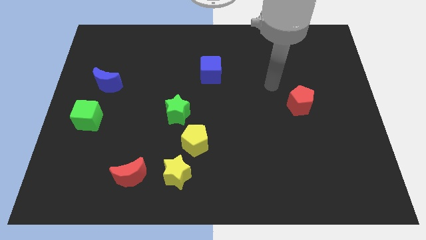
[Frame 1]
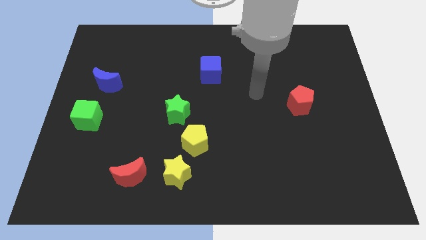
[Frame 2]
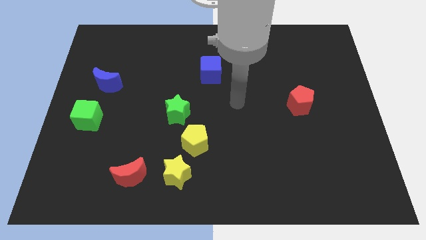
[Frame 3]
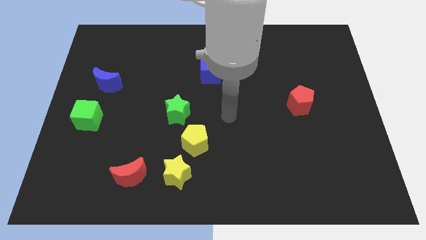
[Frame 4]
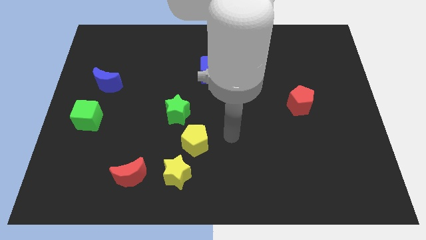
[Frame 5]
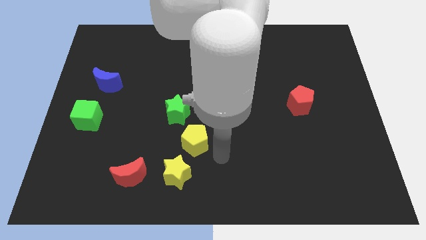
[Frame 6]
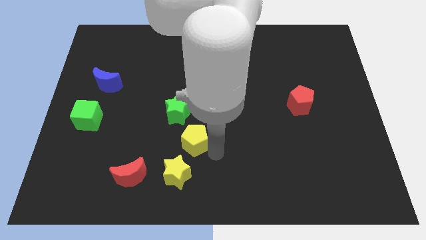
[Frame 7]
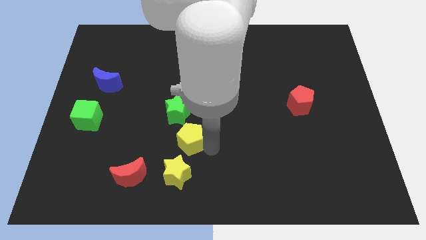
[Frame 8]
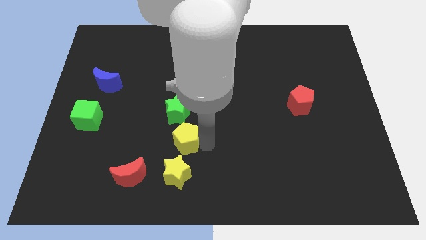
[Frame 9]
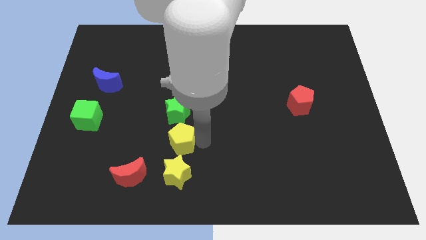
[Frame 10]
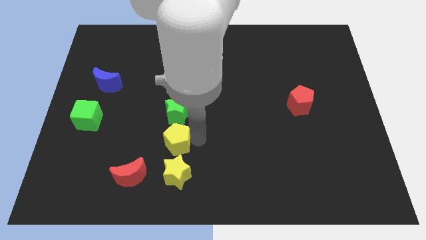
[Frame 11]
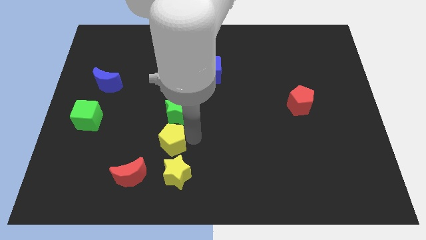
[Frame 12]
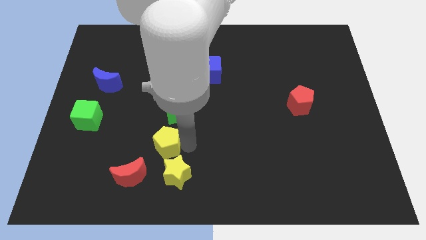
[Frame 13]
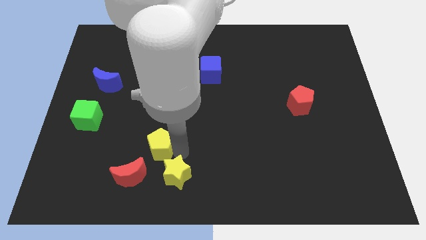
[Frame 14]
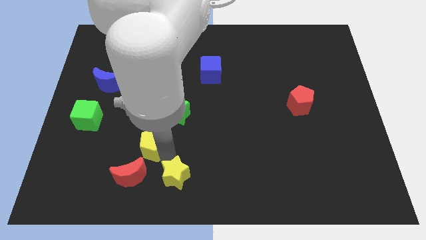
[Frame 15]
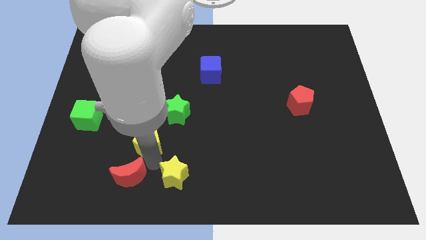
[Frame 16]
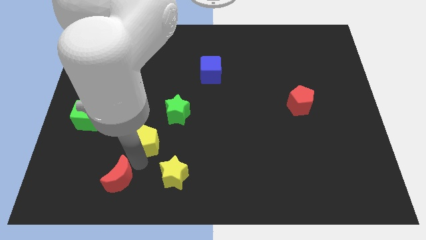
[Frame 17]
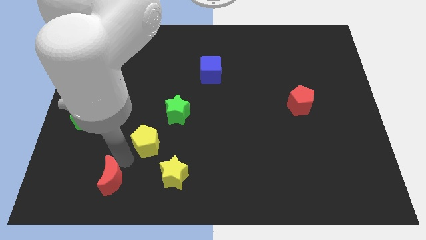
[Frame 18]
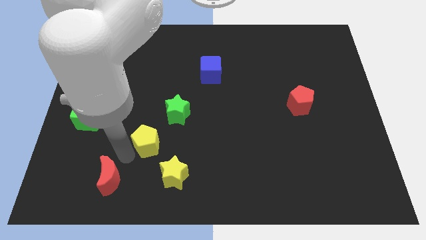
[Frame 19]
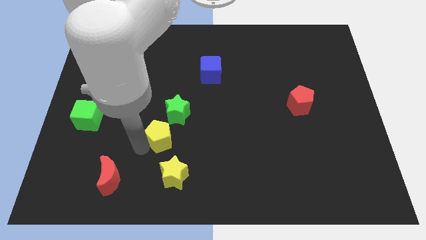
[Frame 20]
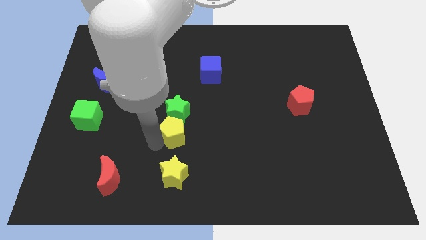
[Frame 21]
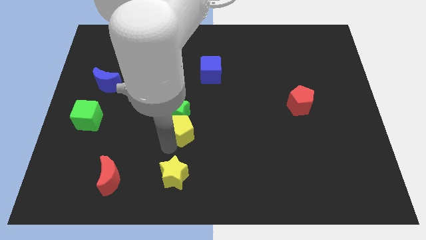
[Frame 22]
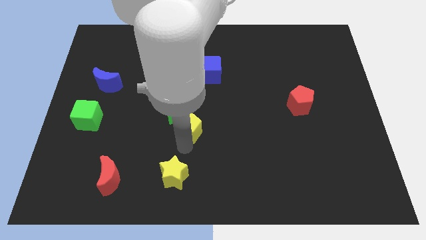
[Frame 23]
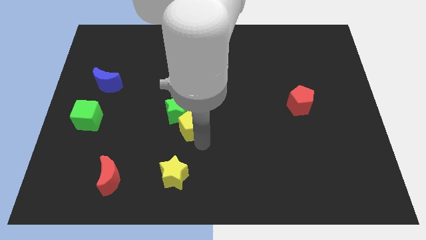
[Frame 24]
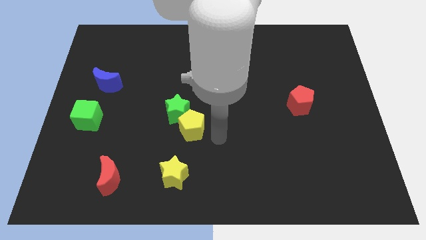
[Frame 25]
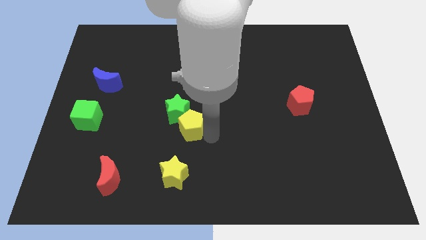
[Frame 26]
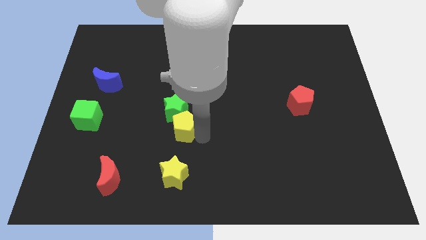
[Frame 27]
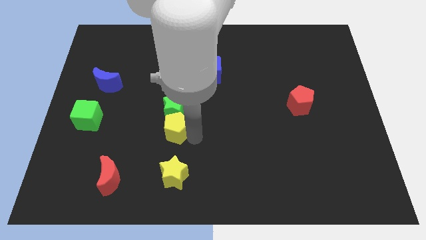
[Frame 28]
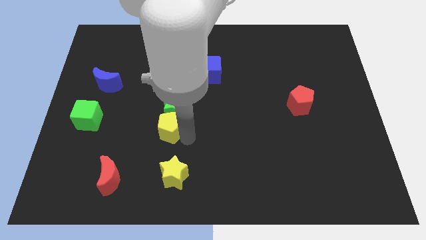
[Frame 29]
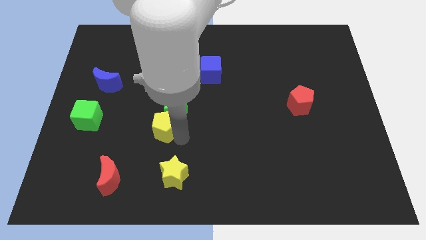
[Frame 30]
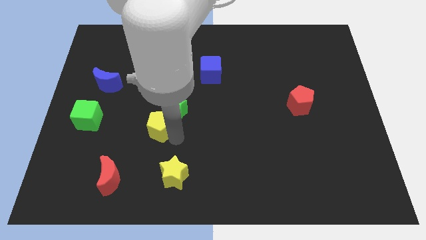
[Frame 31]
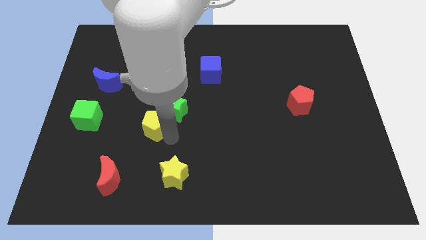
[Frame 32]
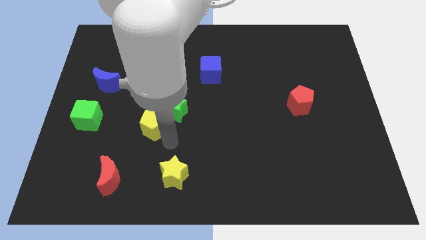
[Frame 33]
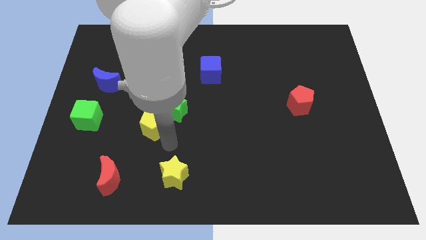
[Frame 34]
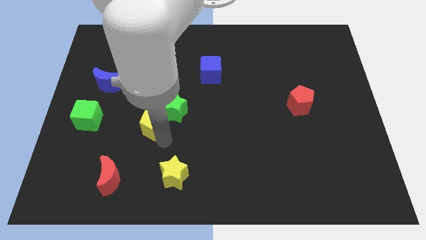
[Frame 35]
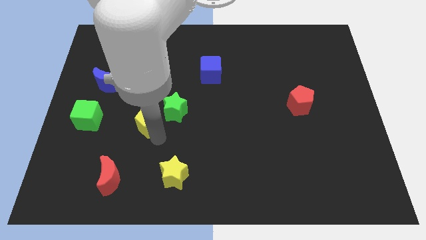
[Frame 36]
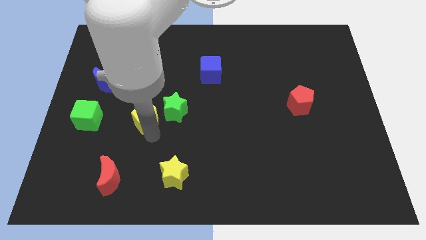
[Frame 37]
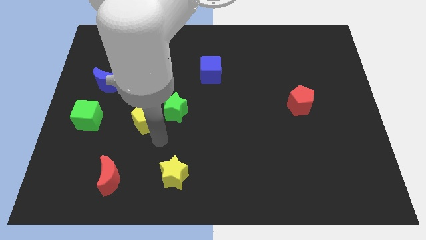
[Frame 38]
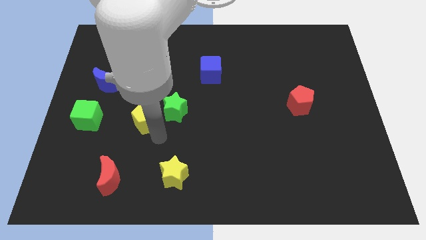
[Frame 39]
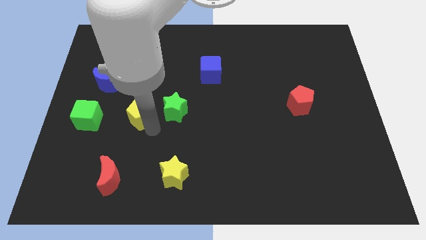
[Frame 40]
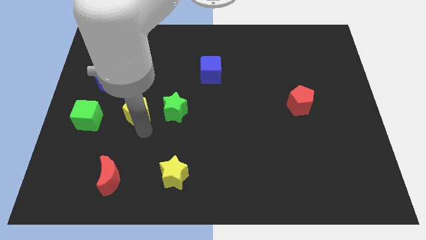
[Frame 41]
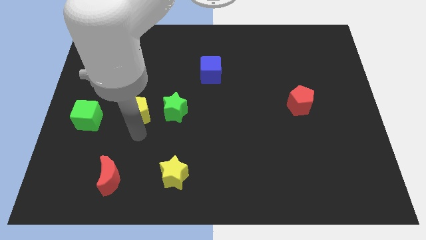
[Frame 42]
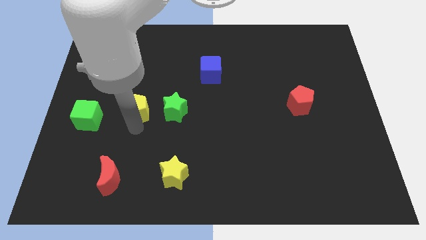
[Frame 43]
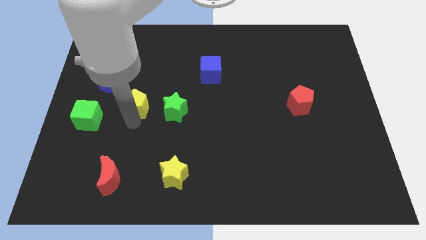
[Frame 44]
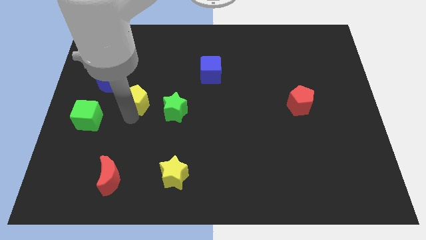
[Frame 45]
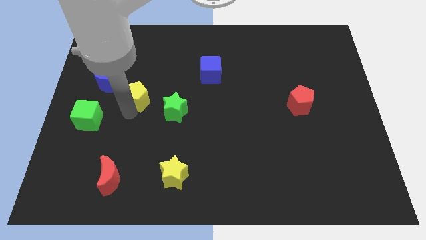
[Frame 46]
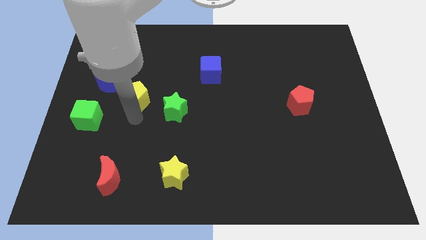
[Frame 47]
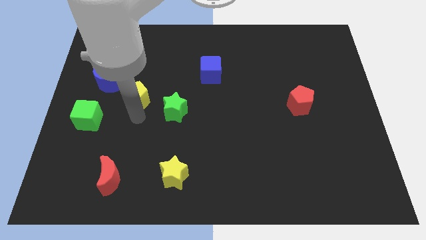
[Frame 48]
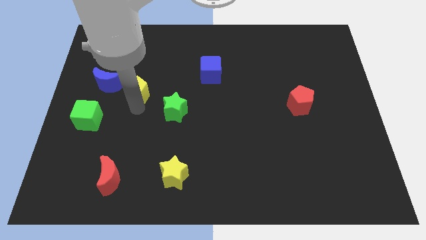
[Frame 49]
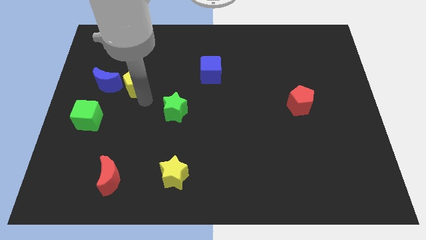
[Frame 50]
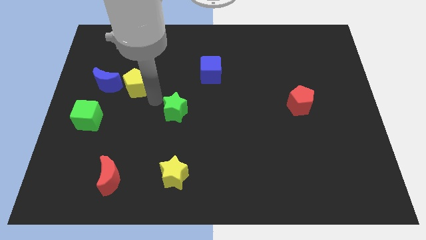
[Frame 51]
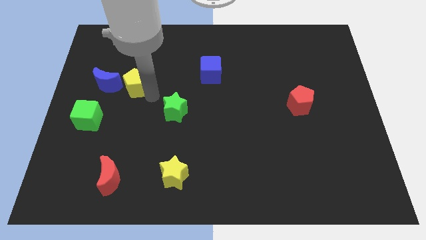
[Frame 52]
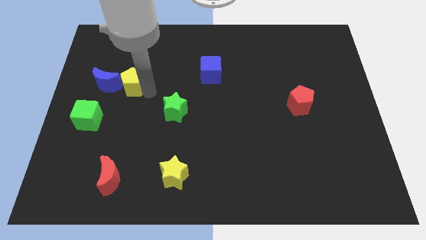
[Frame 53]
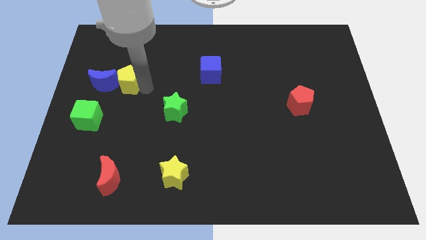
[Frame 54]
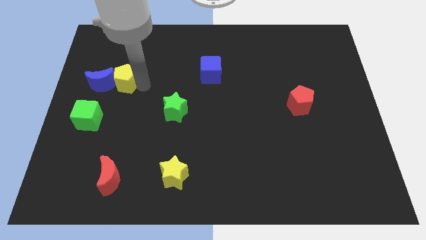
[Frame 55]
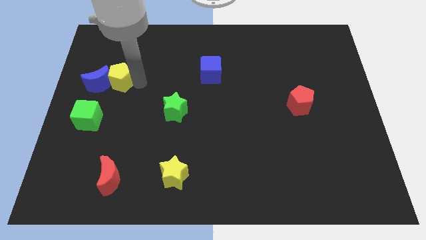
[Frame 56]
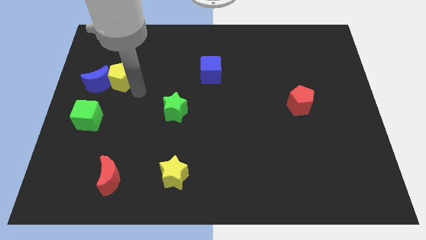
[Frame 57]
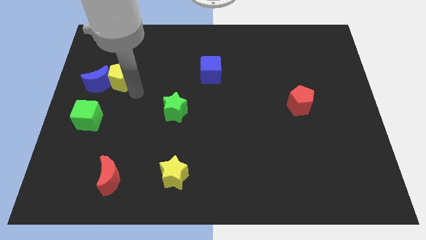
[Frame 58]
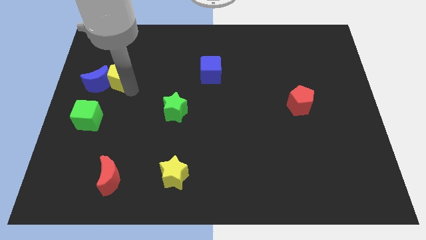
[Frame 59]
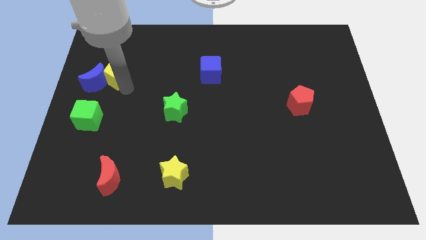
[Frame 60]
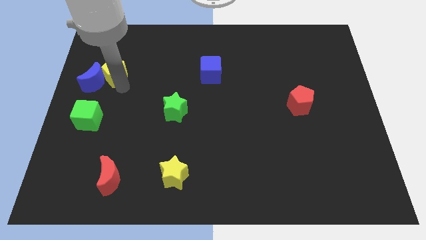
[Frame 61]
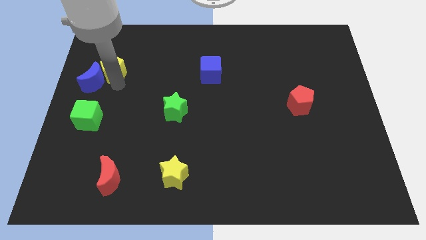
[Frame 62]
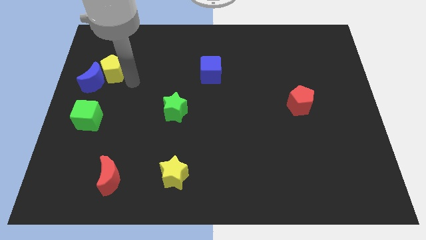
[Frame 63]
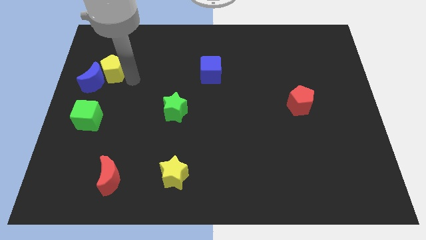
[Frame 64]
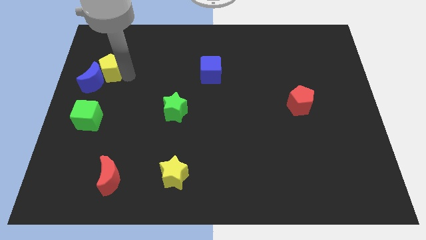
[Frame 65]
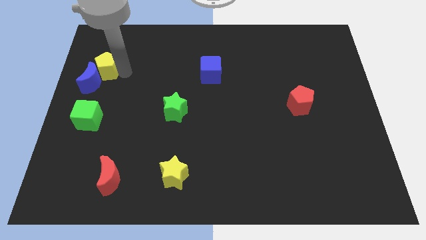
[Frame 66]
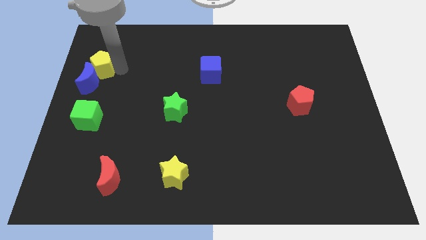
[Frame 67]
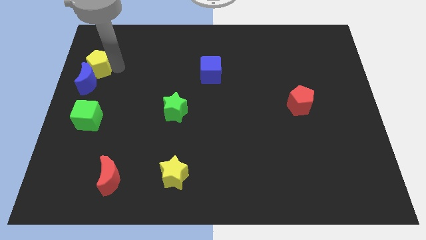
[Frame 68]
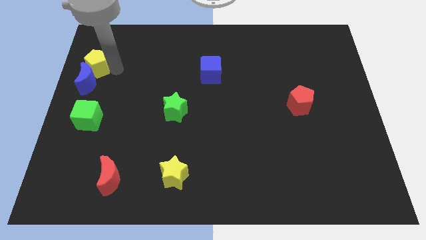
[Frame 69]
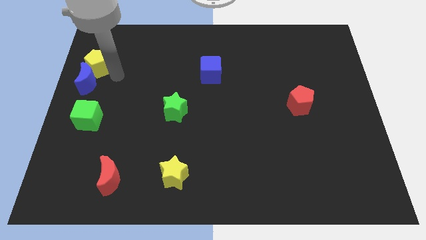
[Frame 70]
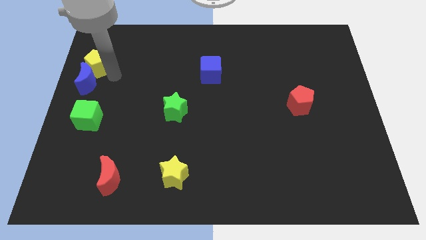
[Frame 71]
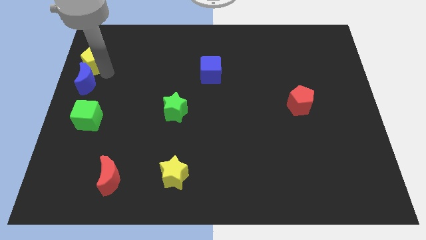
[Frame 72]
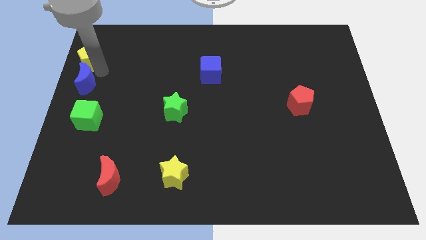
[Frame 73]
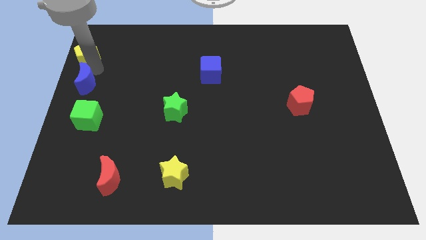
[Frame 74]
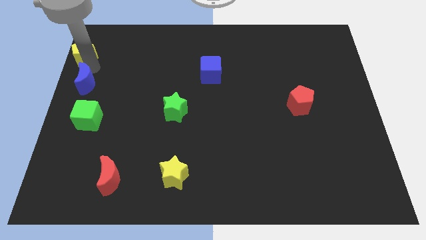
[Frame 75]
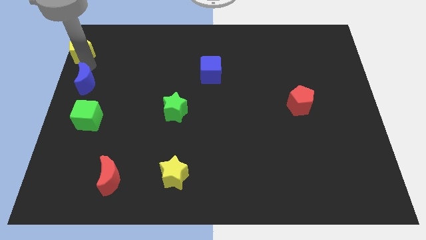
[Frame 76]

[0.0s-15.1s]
move the yellow pentagon to the upper left corner
